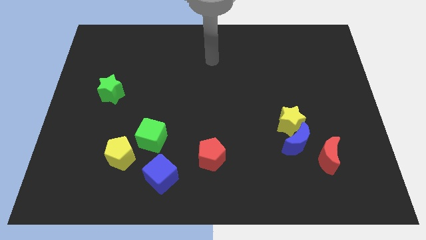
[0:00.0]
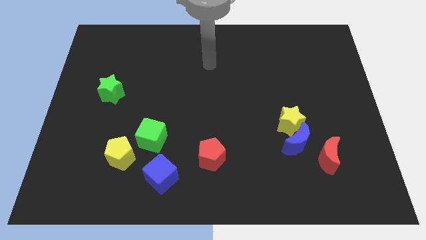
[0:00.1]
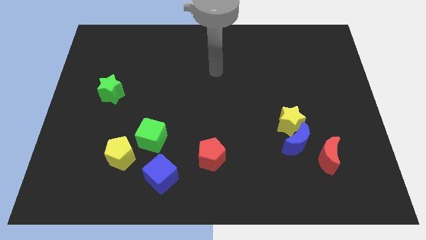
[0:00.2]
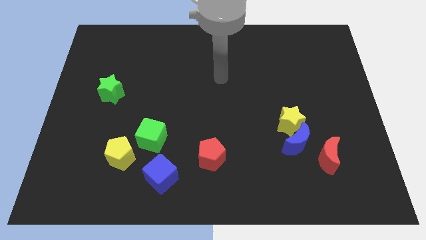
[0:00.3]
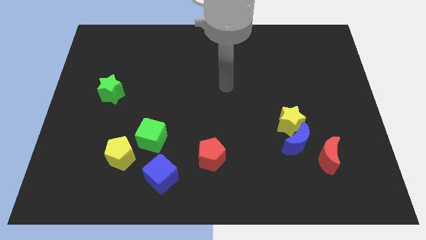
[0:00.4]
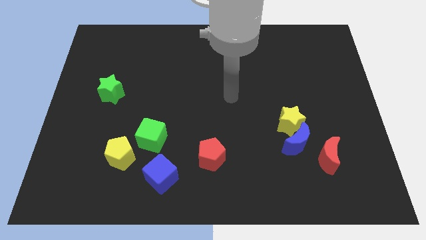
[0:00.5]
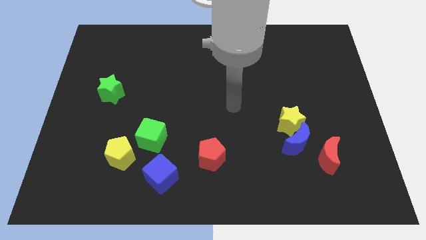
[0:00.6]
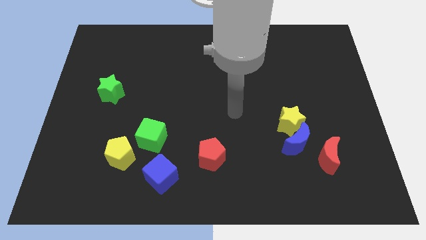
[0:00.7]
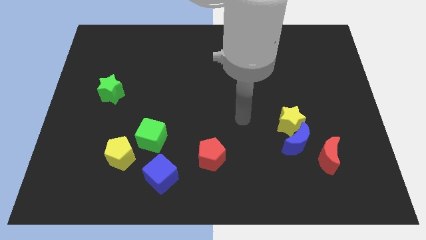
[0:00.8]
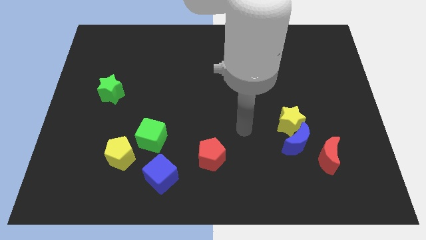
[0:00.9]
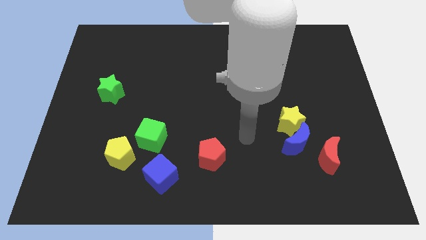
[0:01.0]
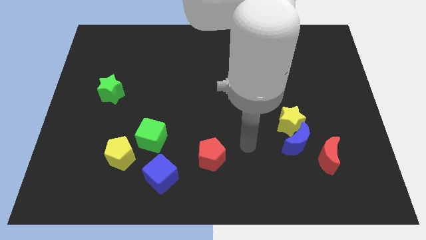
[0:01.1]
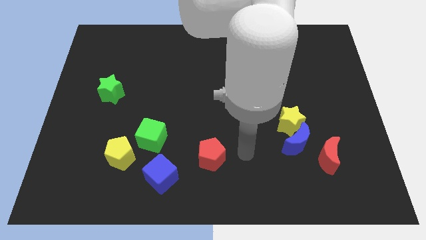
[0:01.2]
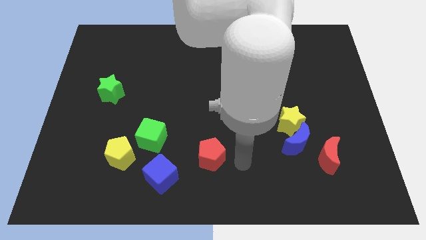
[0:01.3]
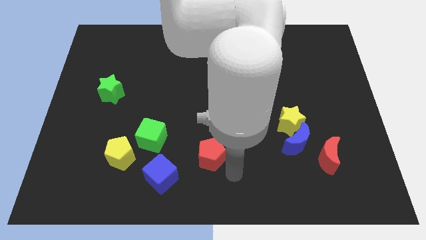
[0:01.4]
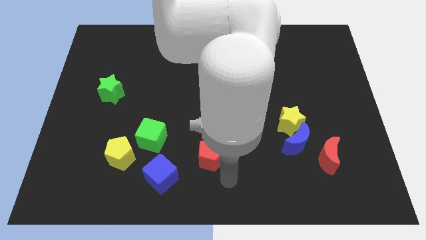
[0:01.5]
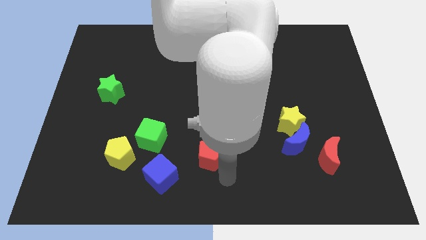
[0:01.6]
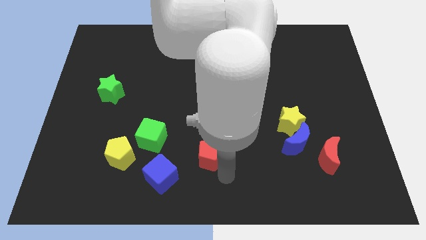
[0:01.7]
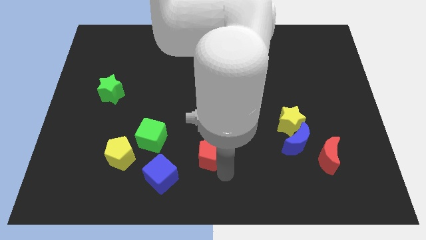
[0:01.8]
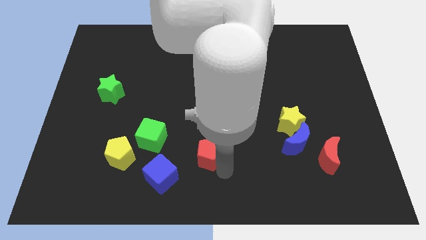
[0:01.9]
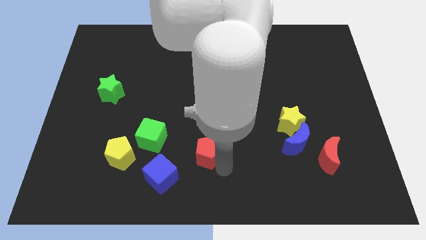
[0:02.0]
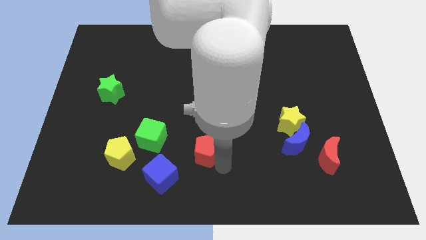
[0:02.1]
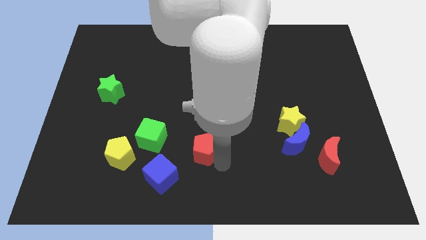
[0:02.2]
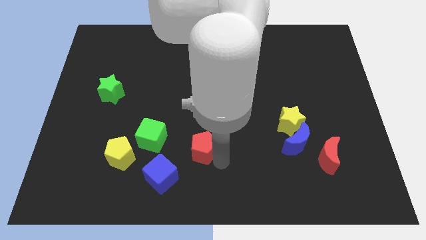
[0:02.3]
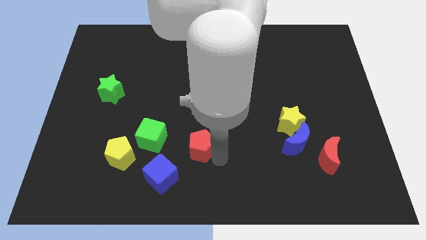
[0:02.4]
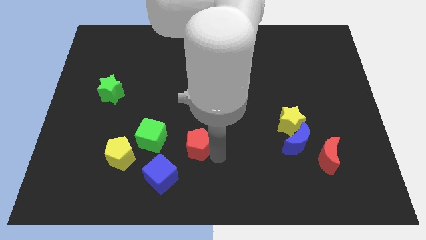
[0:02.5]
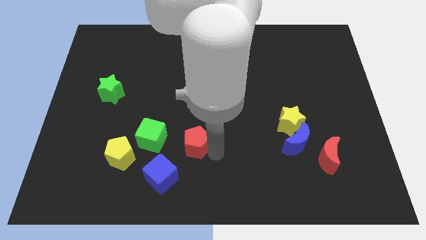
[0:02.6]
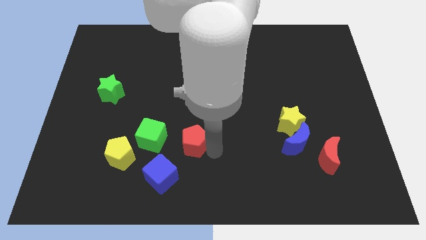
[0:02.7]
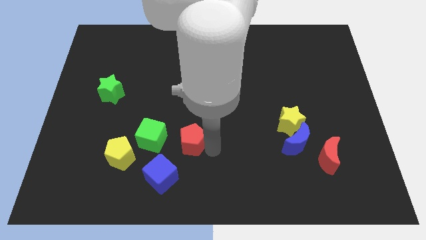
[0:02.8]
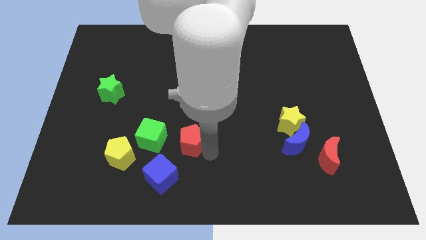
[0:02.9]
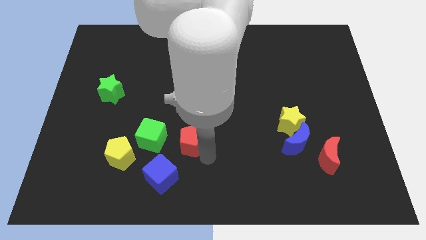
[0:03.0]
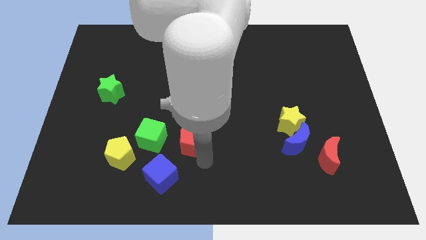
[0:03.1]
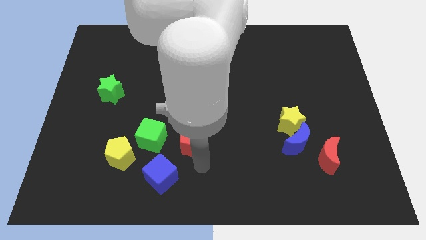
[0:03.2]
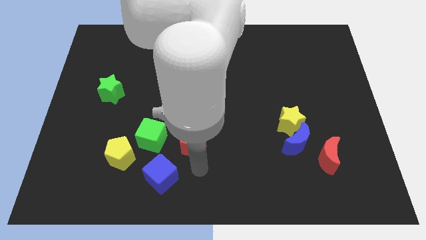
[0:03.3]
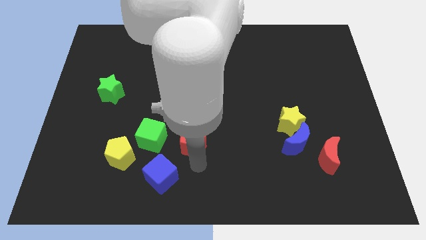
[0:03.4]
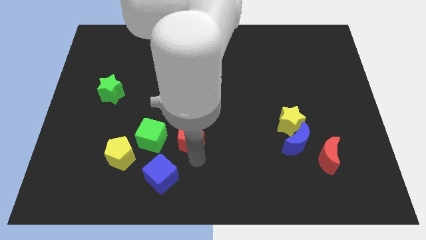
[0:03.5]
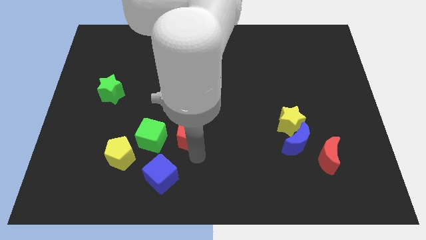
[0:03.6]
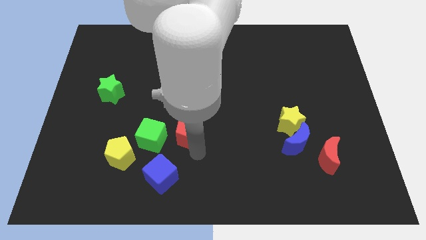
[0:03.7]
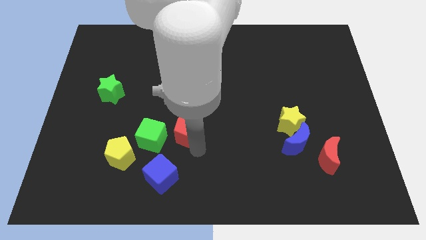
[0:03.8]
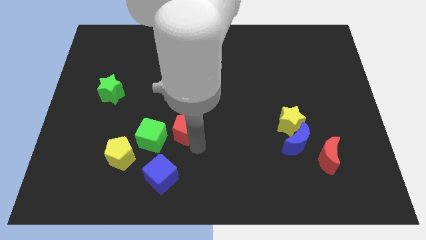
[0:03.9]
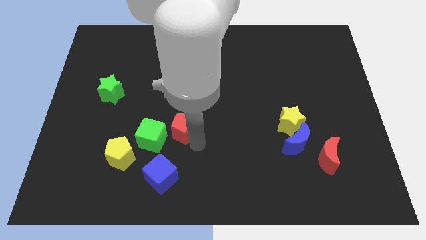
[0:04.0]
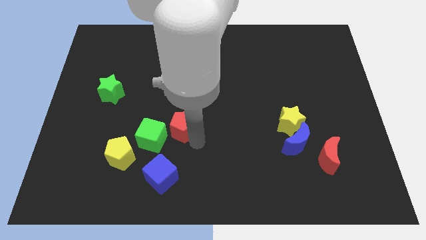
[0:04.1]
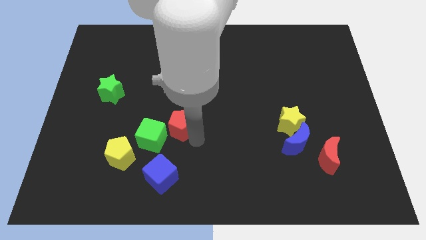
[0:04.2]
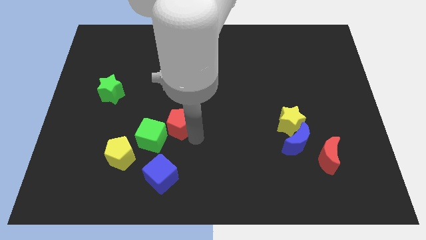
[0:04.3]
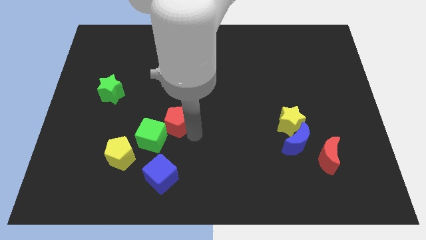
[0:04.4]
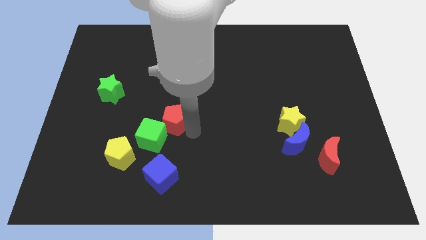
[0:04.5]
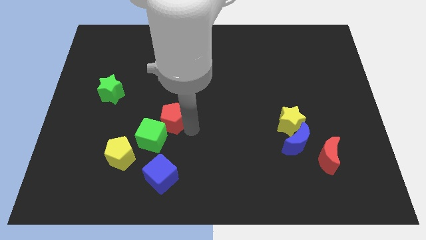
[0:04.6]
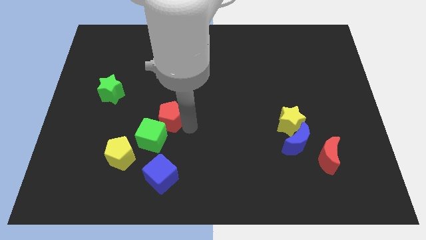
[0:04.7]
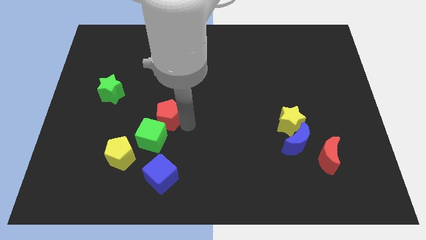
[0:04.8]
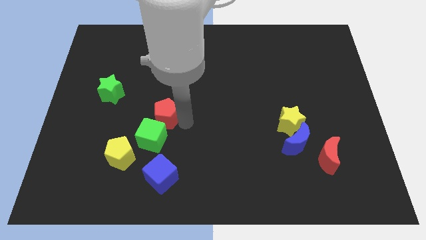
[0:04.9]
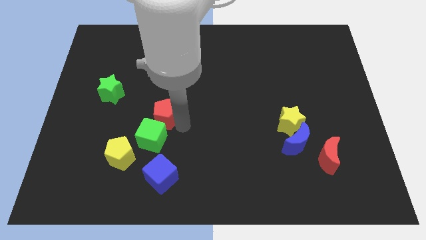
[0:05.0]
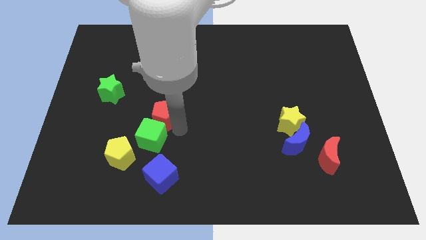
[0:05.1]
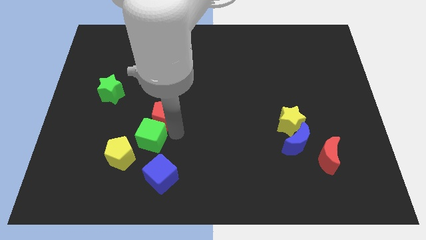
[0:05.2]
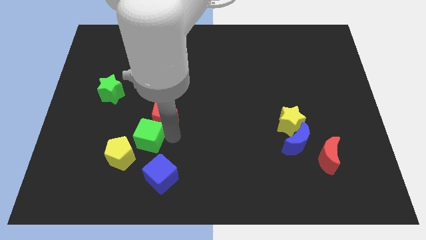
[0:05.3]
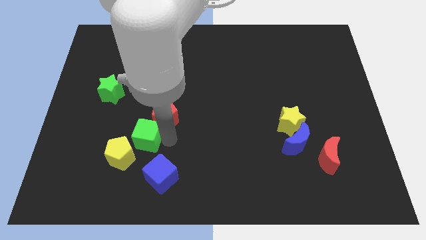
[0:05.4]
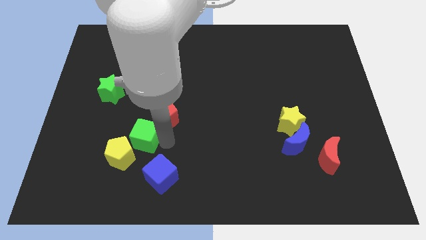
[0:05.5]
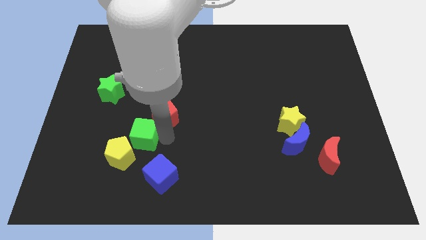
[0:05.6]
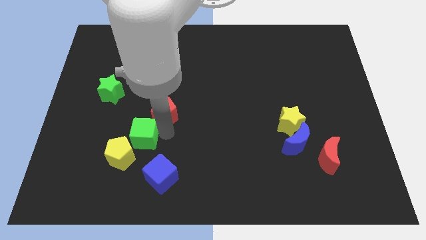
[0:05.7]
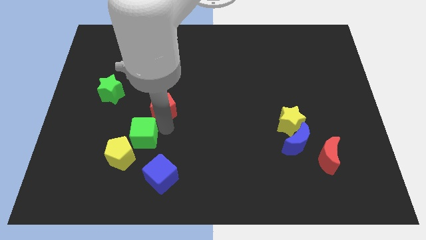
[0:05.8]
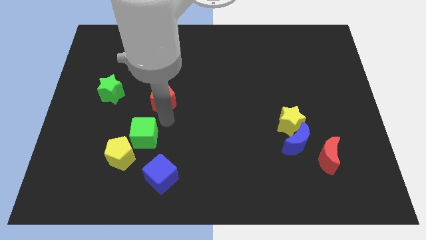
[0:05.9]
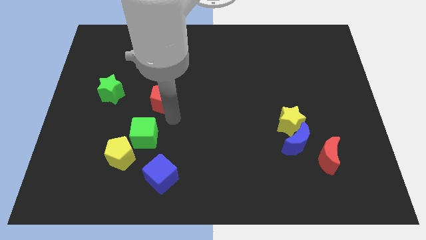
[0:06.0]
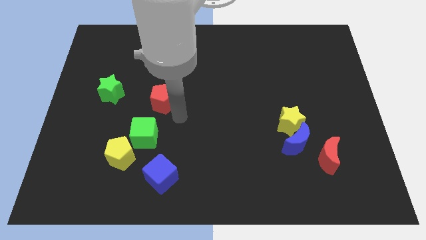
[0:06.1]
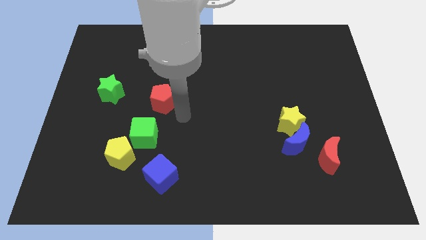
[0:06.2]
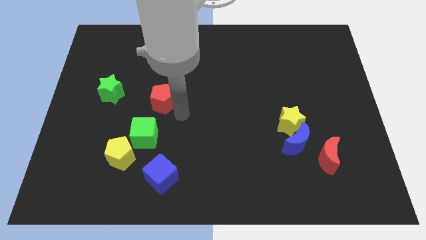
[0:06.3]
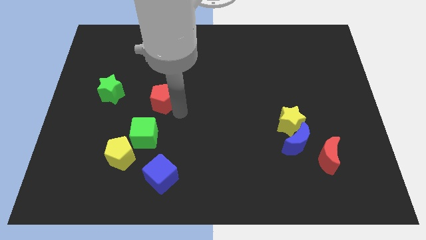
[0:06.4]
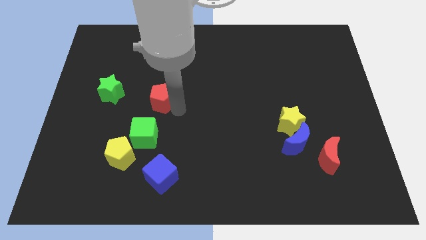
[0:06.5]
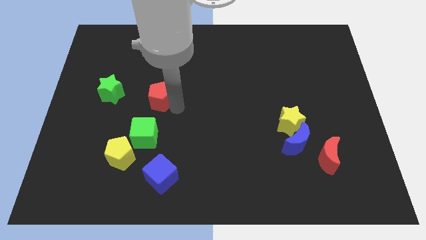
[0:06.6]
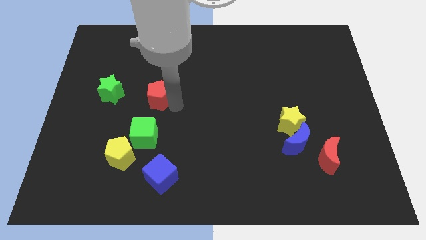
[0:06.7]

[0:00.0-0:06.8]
move the red pentagon upwards and to the left diagonally

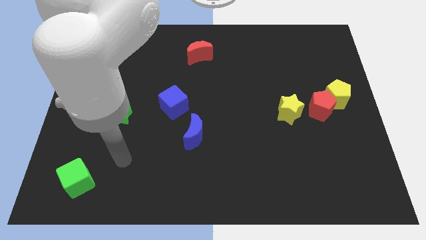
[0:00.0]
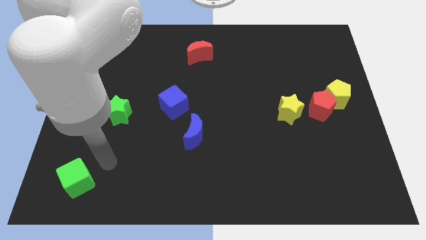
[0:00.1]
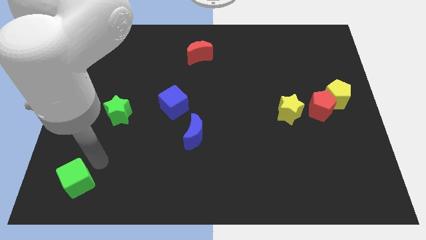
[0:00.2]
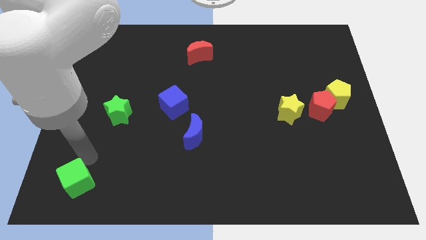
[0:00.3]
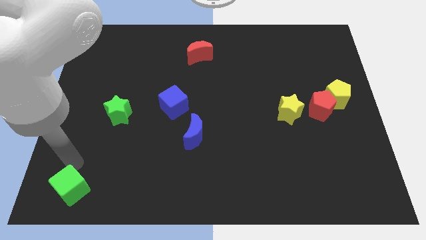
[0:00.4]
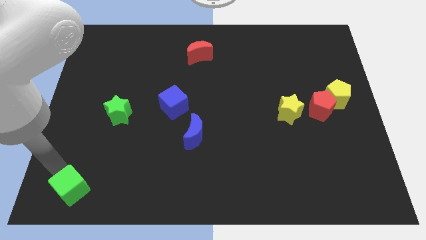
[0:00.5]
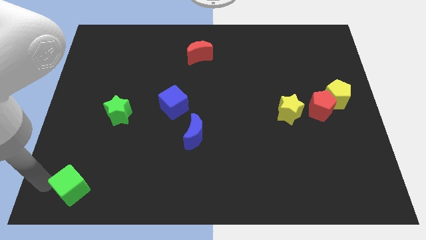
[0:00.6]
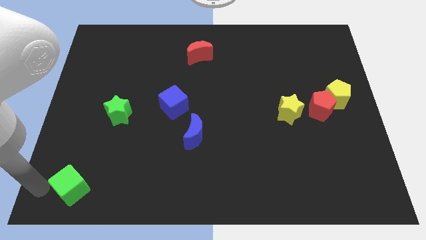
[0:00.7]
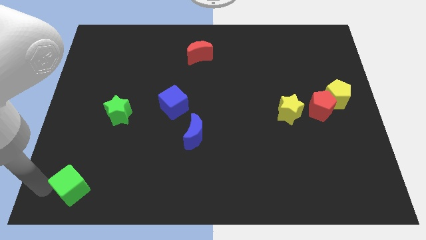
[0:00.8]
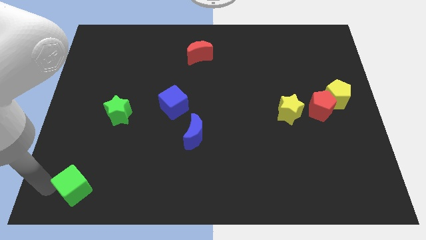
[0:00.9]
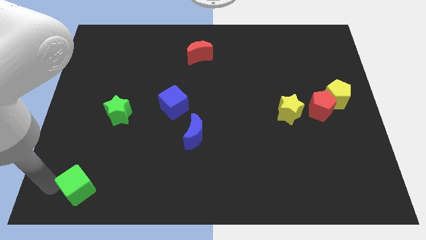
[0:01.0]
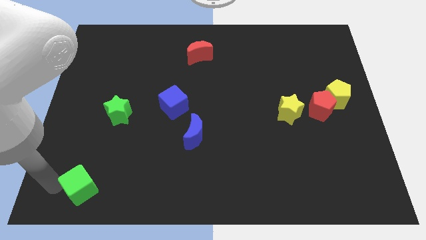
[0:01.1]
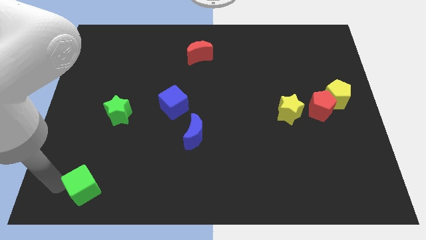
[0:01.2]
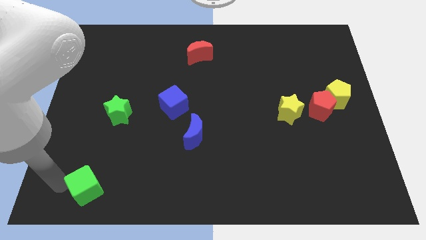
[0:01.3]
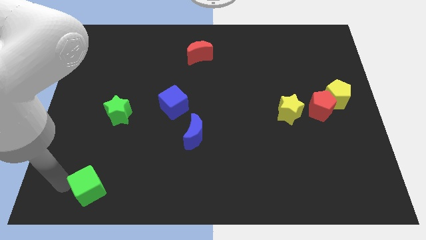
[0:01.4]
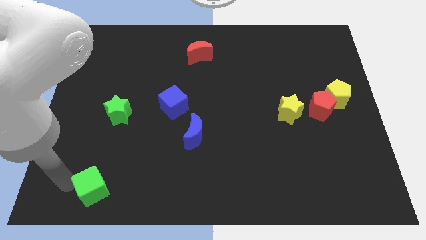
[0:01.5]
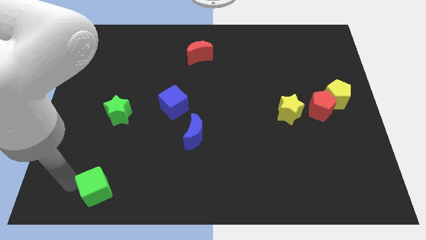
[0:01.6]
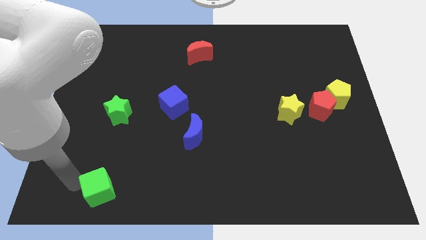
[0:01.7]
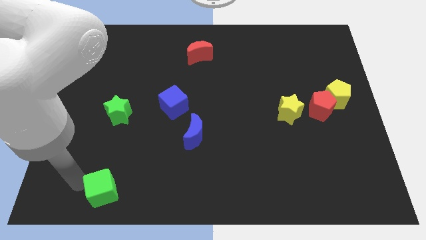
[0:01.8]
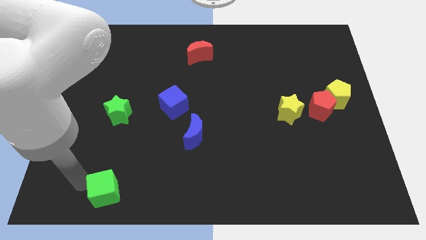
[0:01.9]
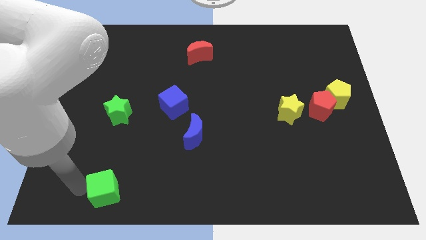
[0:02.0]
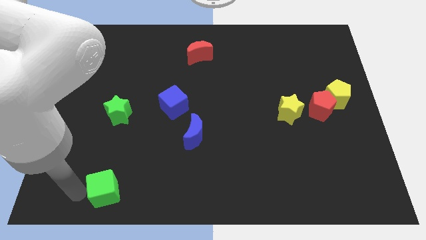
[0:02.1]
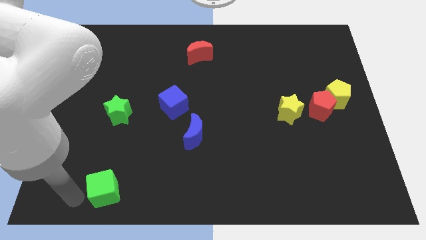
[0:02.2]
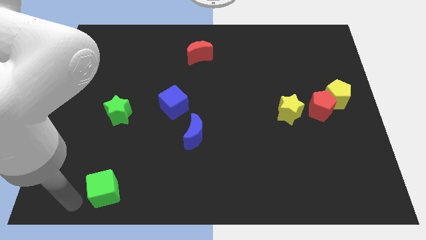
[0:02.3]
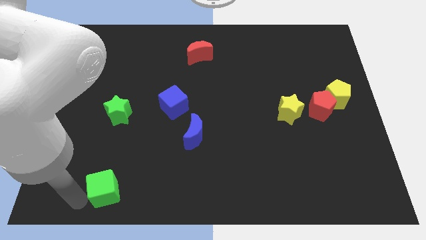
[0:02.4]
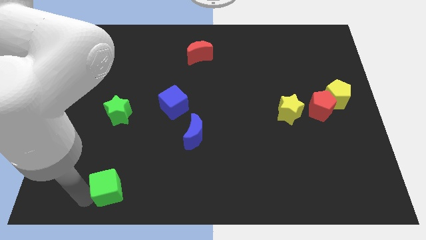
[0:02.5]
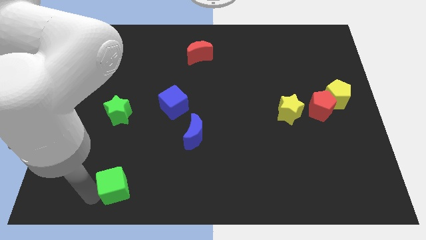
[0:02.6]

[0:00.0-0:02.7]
slide the green cube right a little bit
